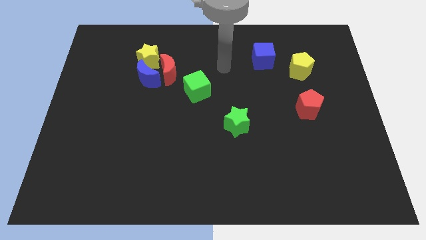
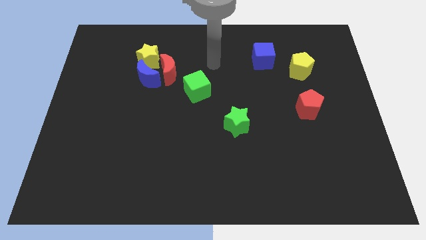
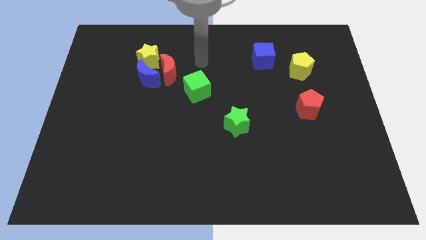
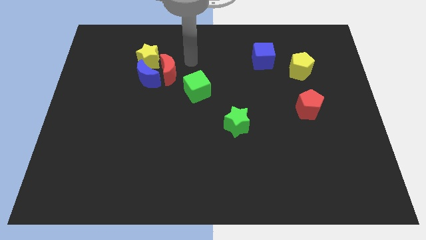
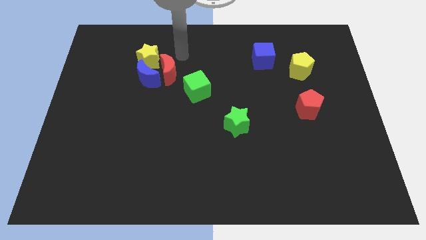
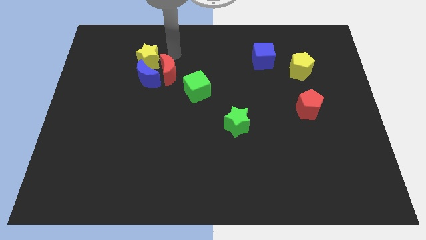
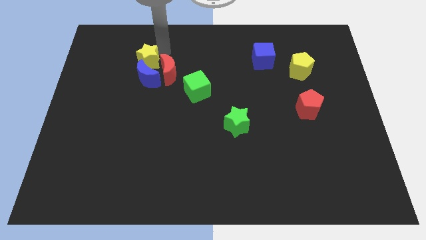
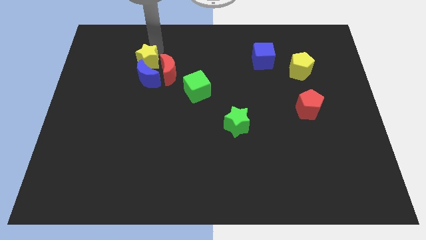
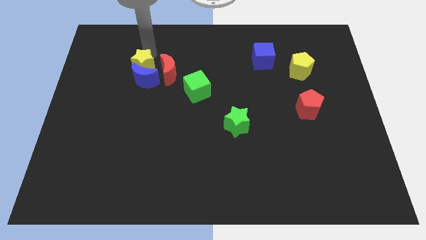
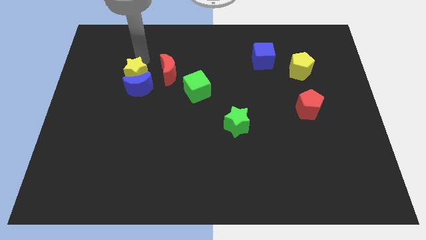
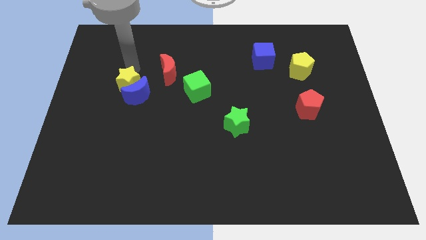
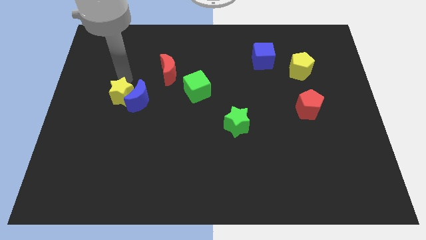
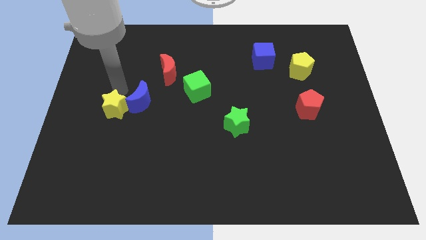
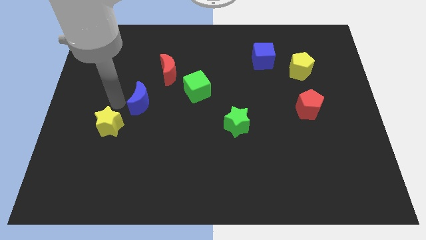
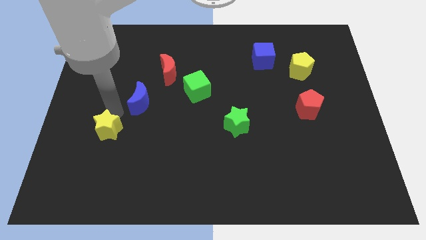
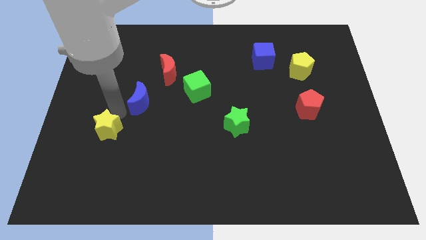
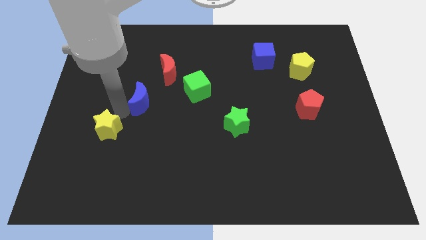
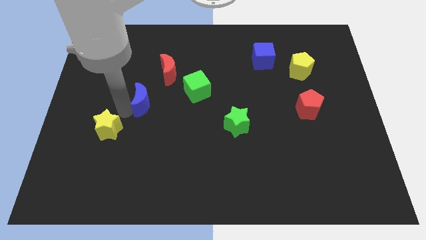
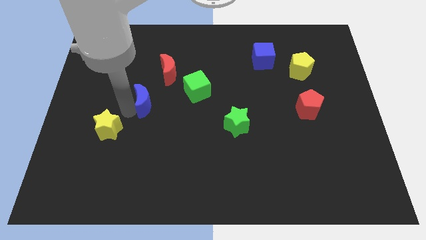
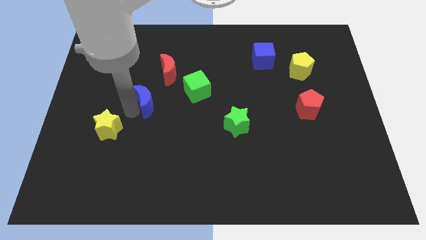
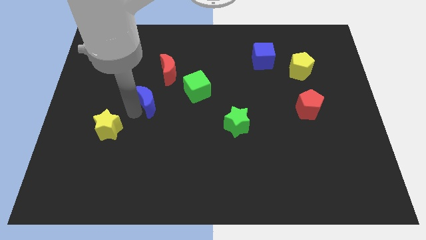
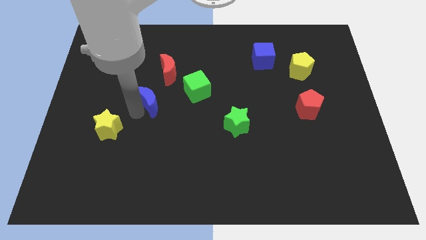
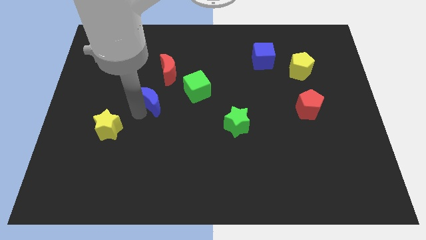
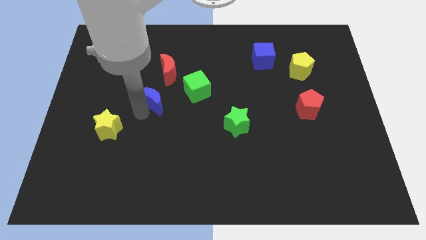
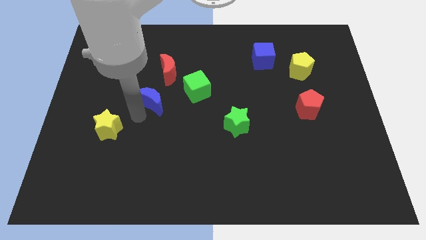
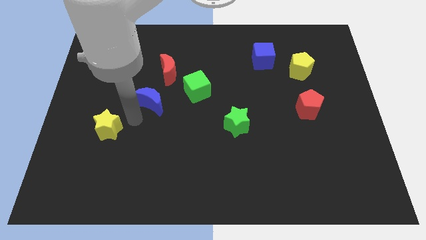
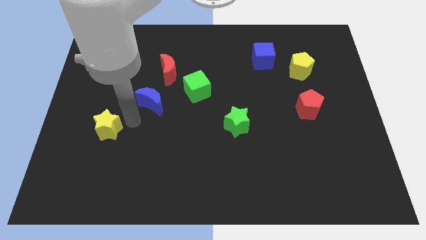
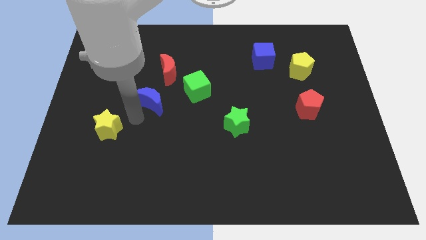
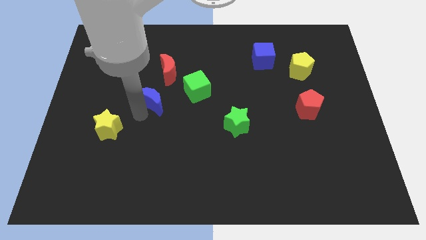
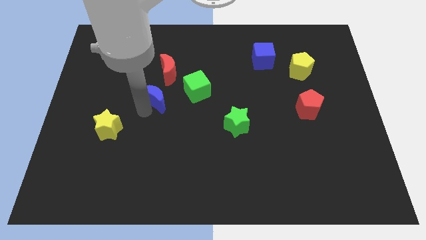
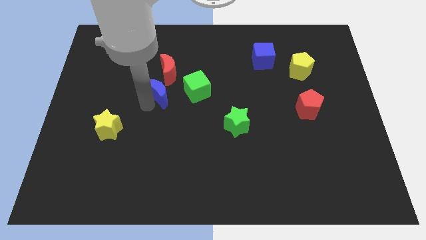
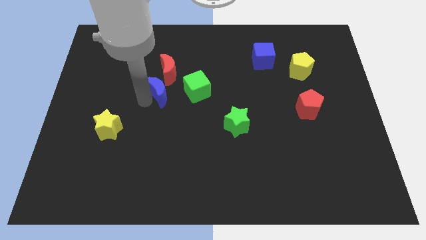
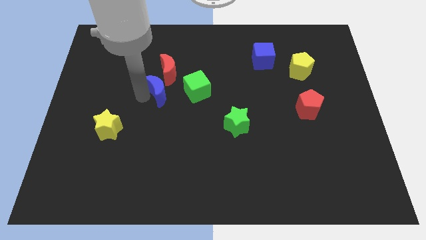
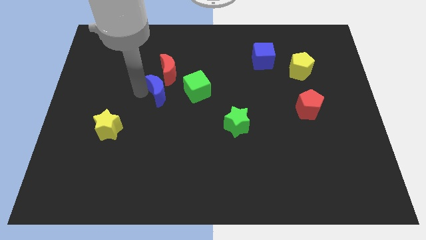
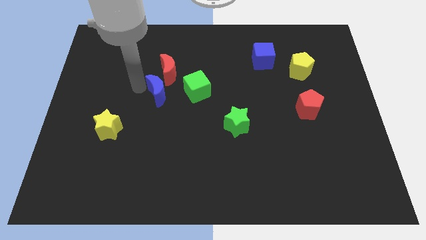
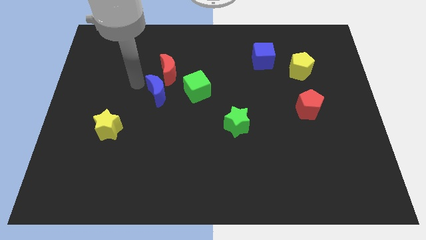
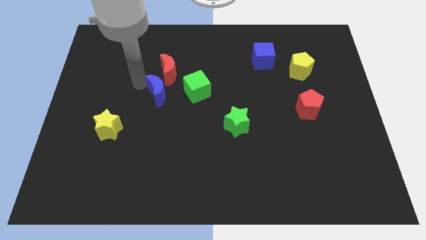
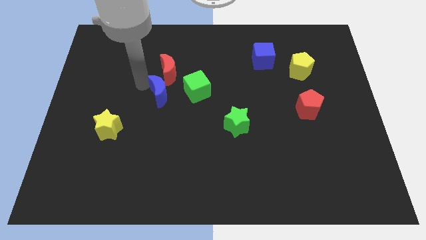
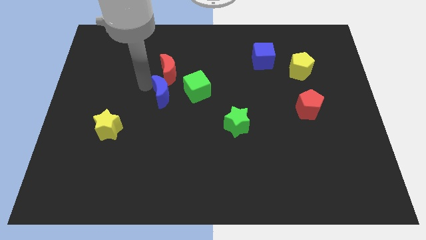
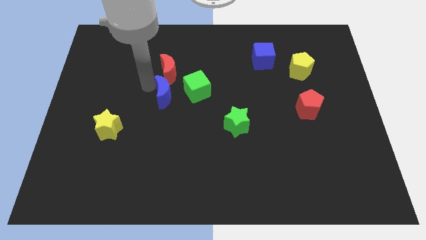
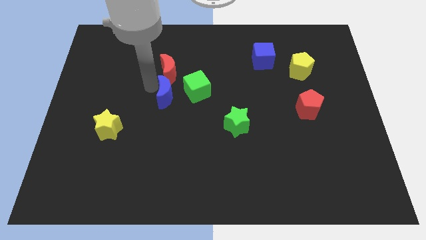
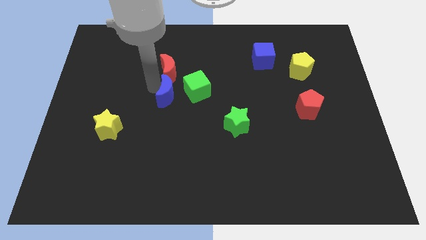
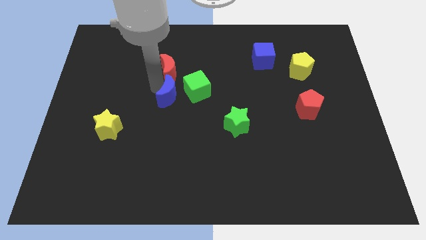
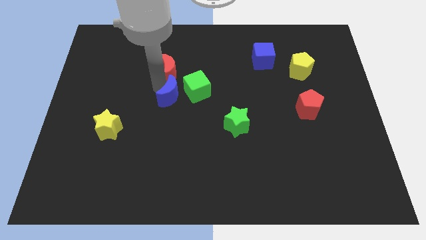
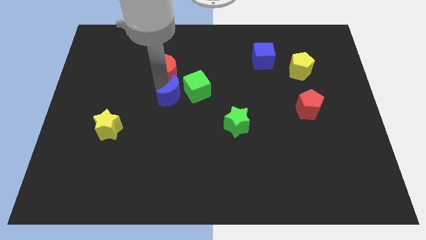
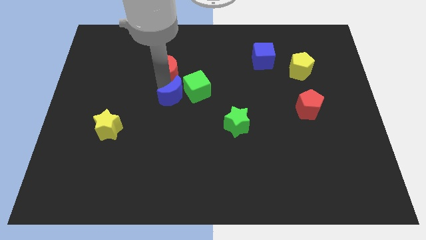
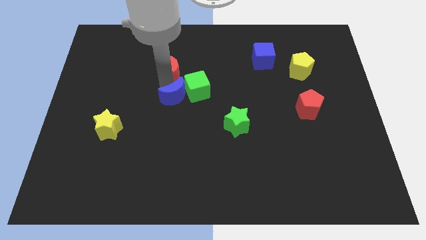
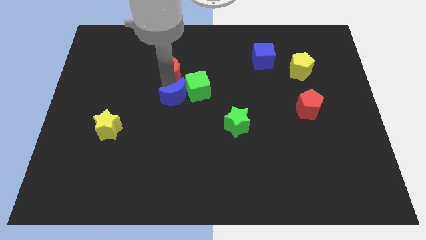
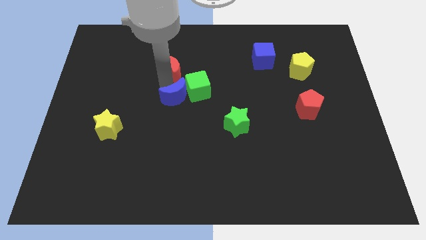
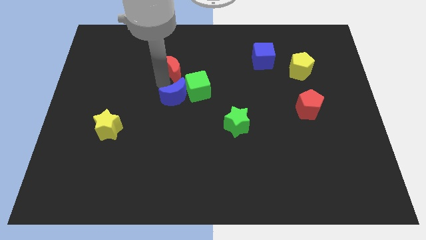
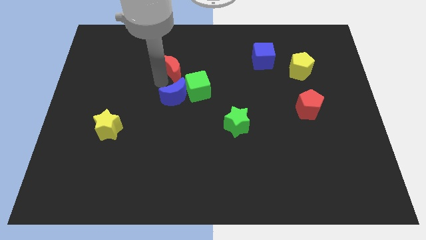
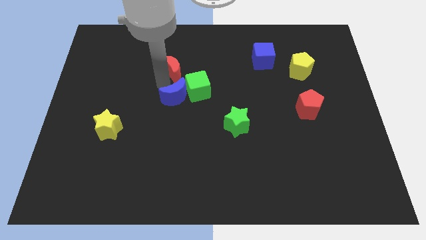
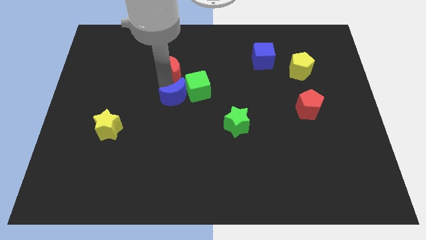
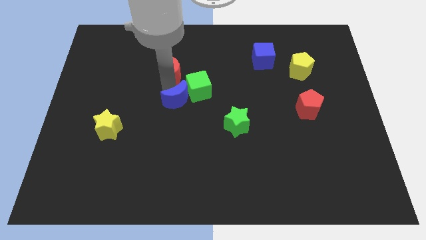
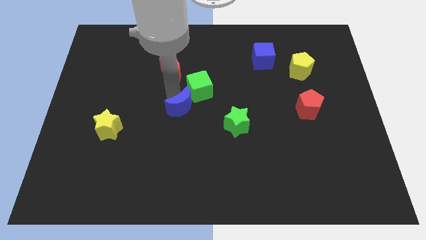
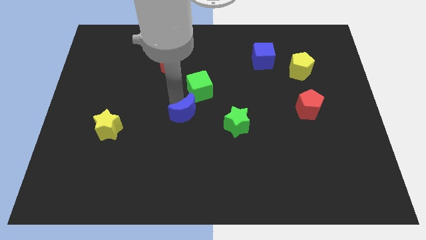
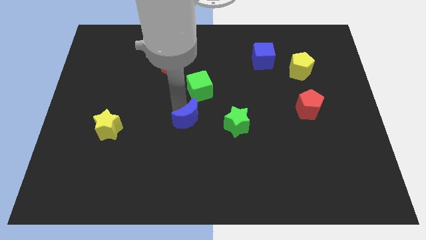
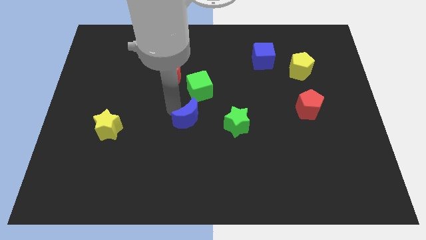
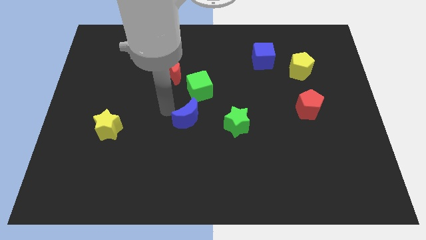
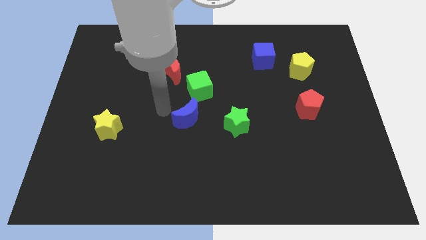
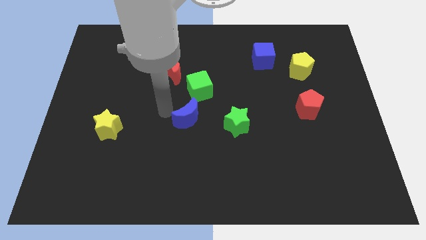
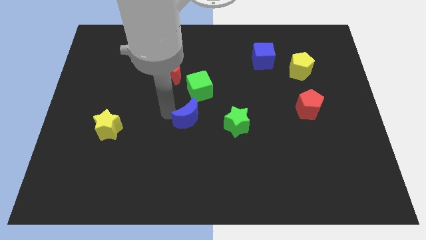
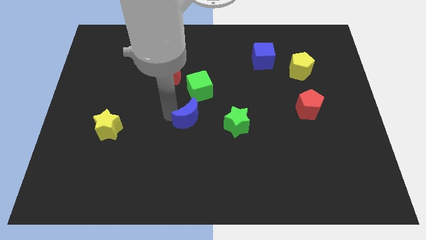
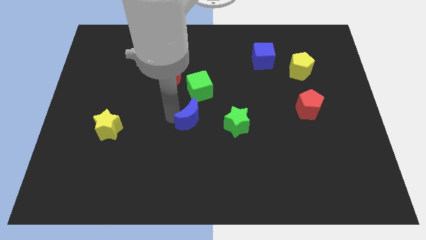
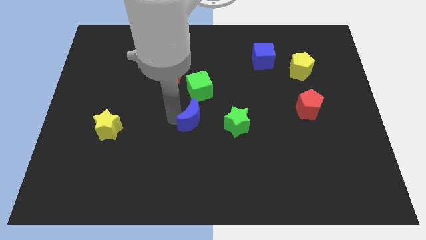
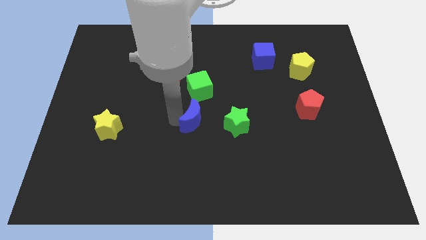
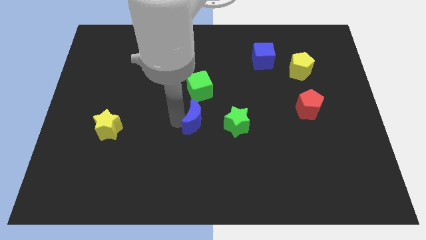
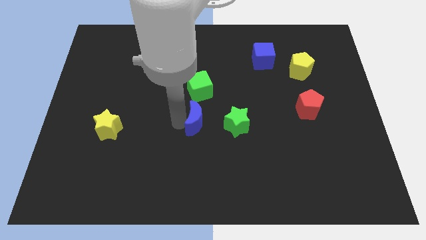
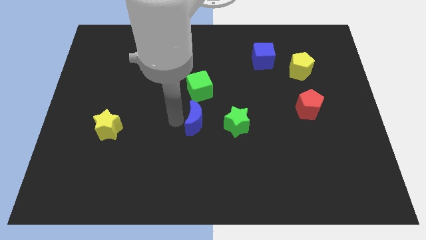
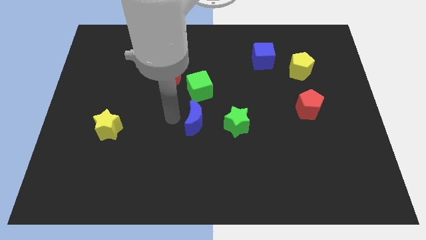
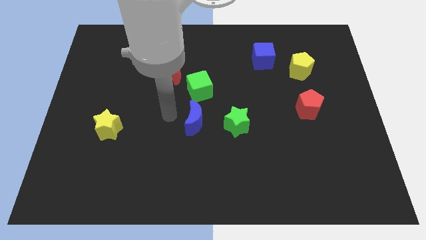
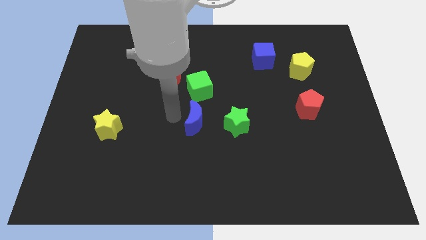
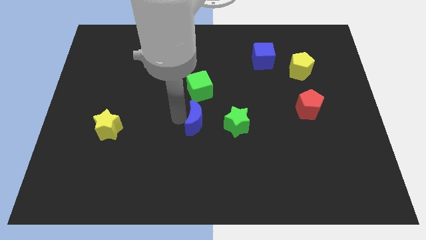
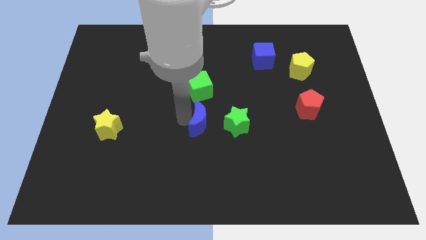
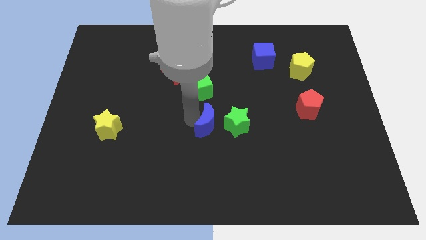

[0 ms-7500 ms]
move the blue moon downwards and right

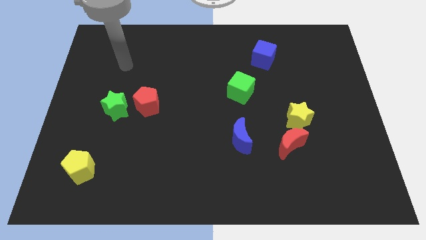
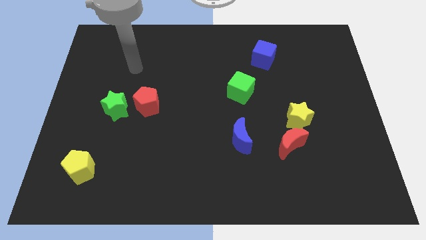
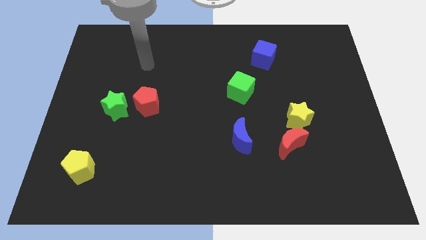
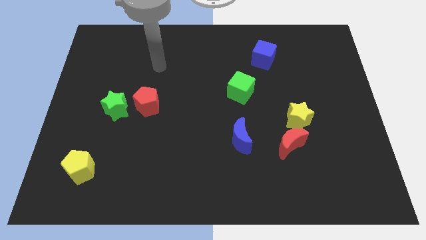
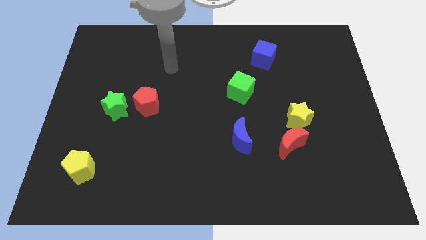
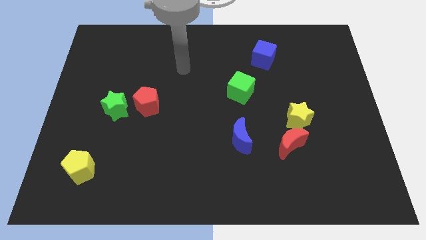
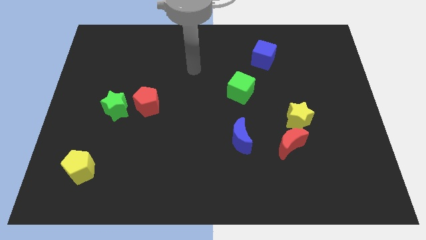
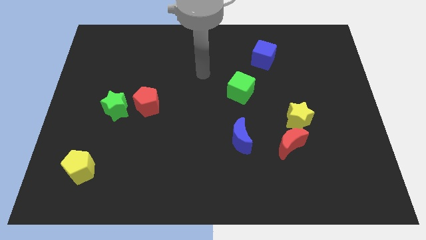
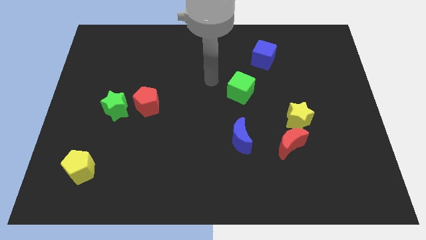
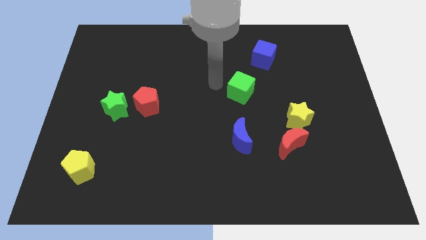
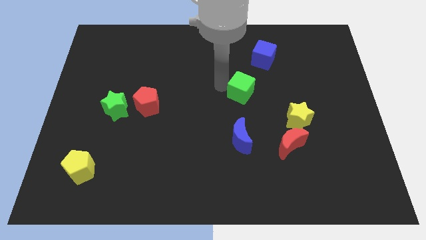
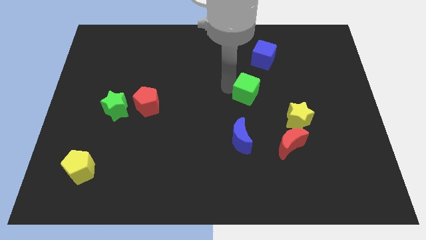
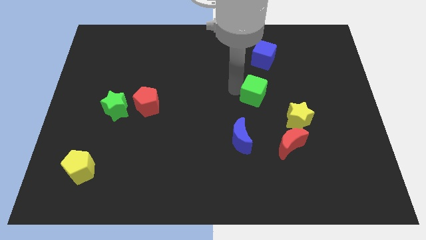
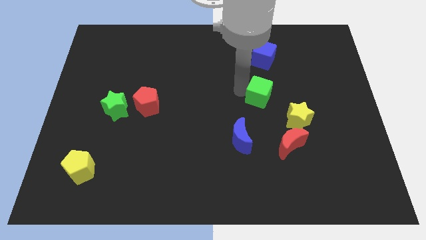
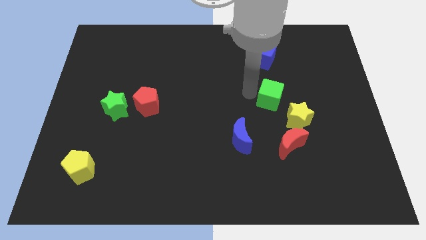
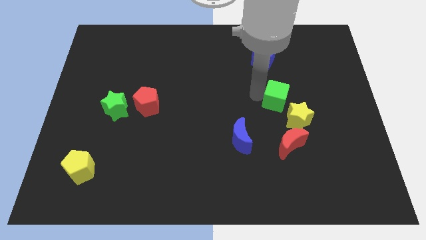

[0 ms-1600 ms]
slightly push the green cube down and to the right diagonally
